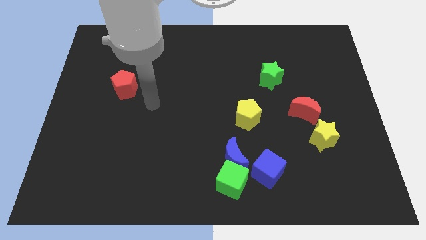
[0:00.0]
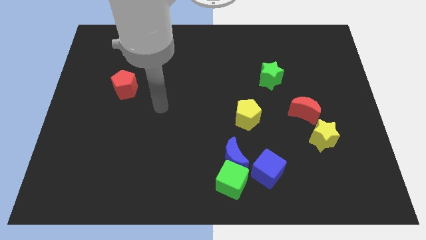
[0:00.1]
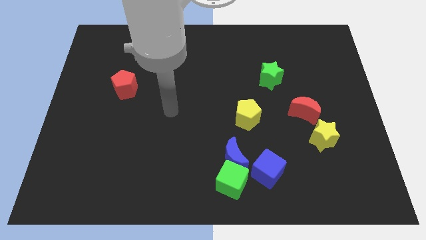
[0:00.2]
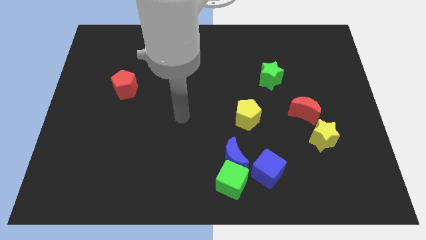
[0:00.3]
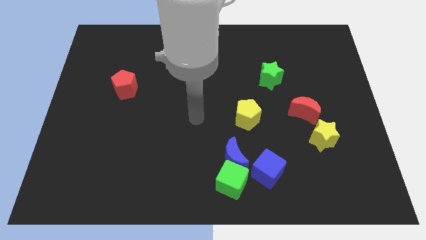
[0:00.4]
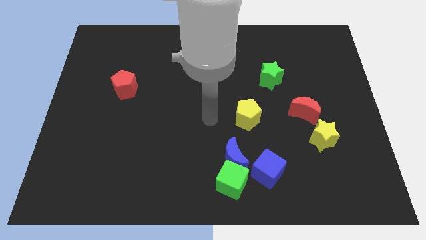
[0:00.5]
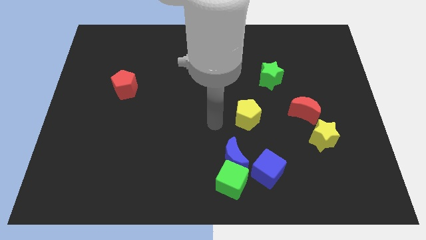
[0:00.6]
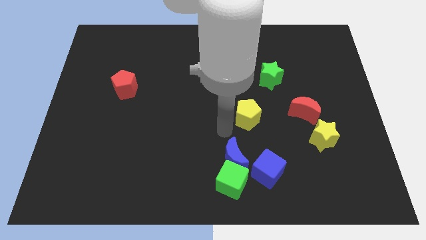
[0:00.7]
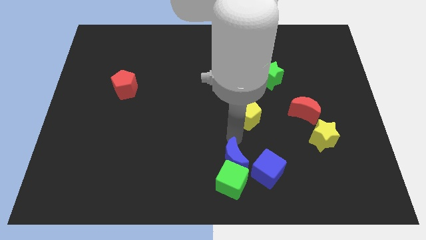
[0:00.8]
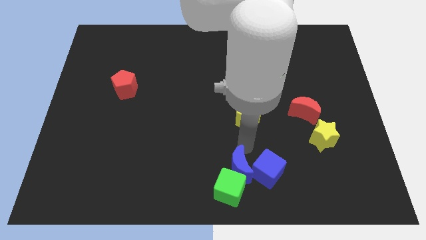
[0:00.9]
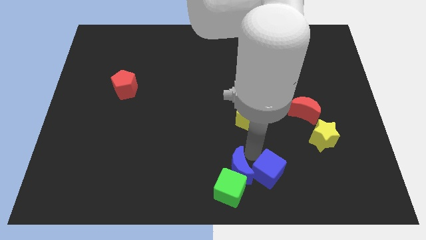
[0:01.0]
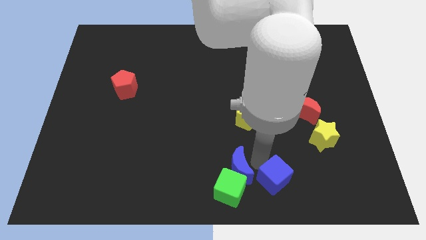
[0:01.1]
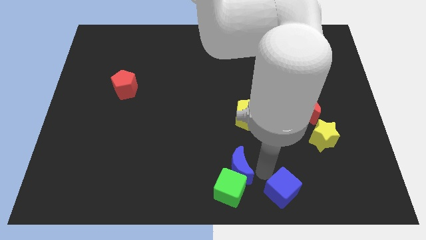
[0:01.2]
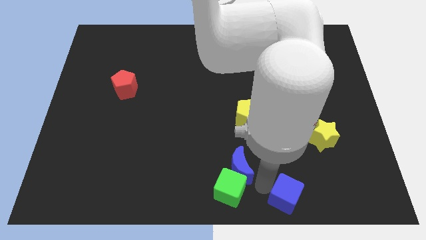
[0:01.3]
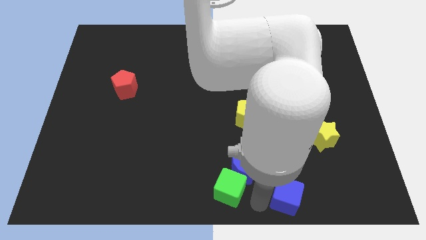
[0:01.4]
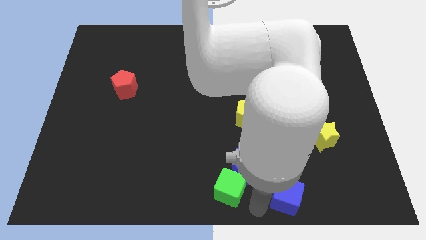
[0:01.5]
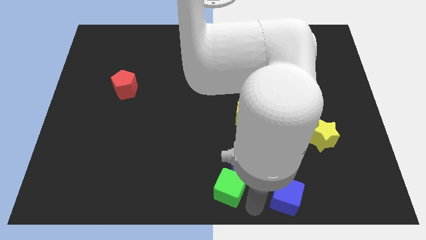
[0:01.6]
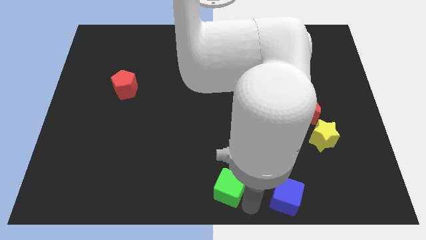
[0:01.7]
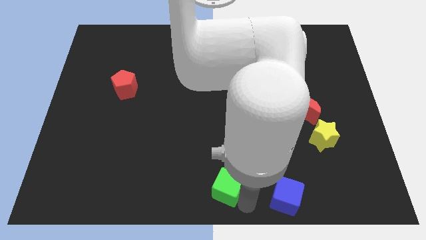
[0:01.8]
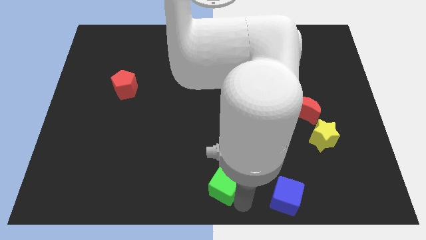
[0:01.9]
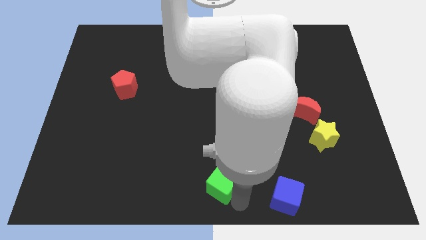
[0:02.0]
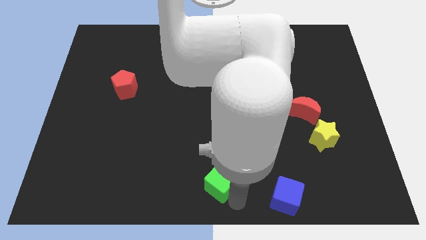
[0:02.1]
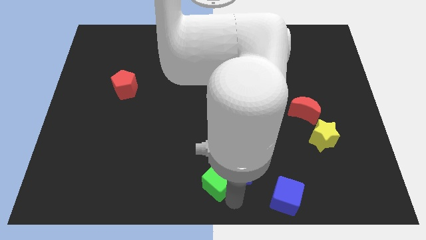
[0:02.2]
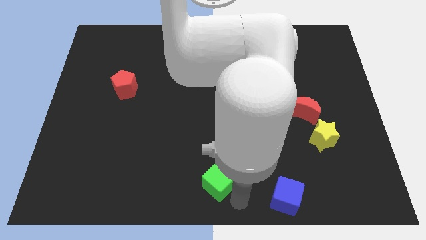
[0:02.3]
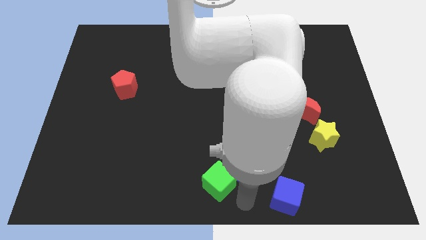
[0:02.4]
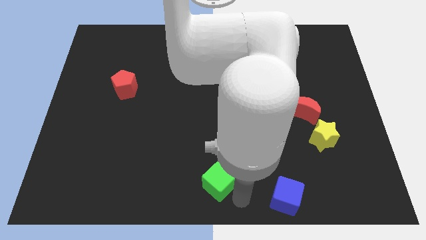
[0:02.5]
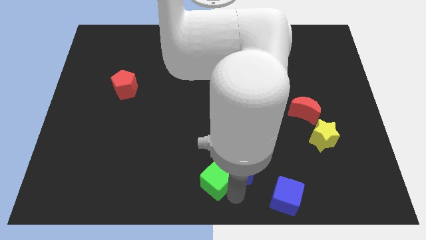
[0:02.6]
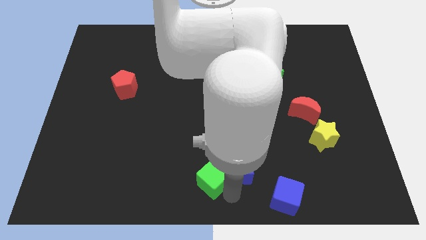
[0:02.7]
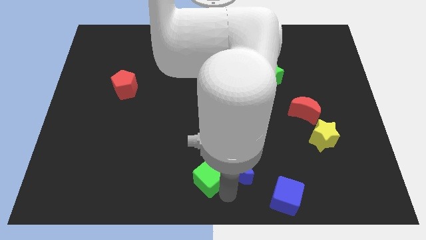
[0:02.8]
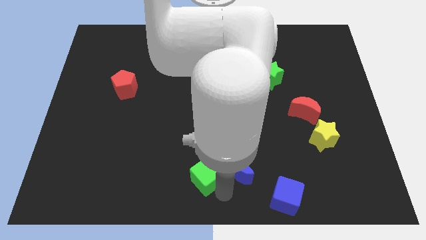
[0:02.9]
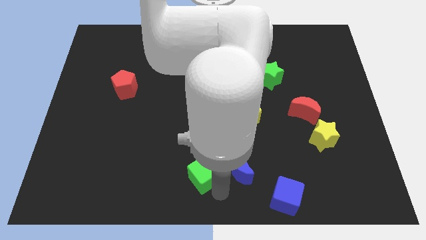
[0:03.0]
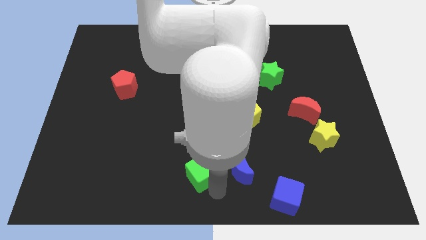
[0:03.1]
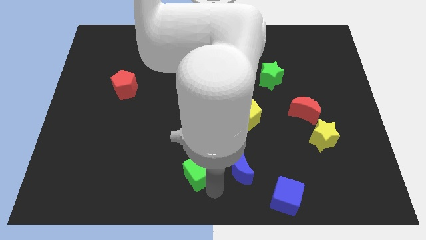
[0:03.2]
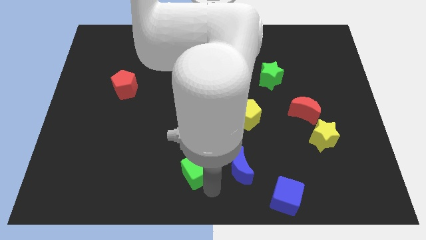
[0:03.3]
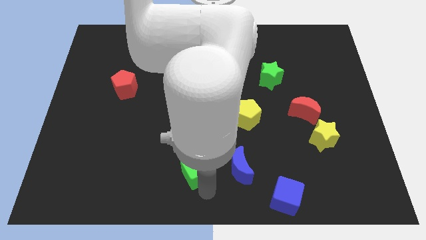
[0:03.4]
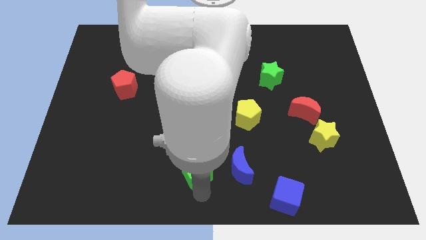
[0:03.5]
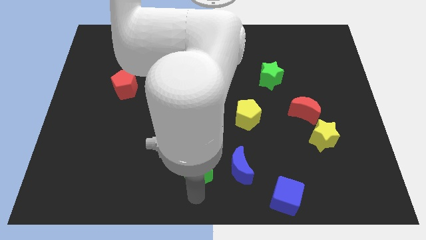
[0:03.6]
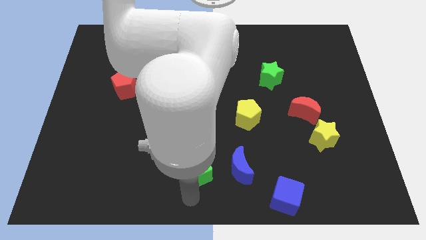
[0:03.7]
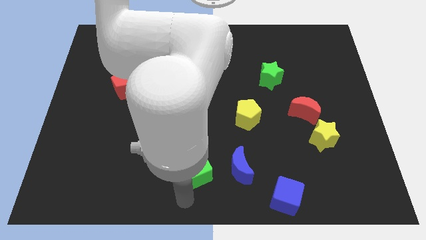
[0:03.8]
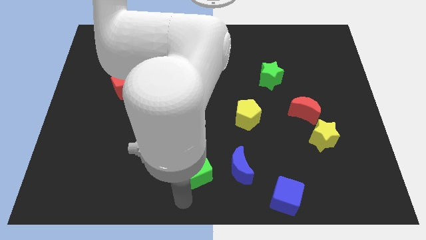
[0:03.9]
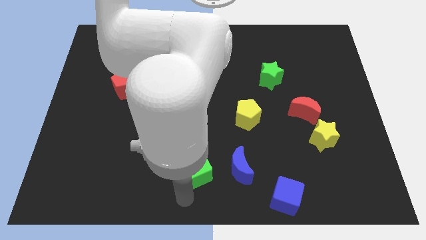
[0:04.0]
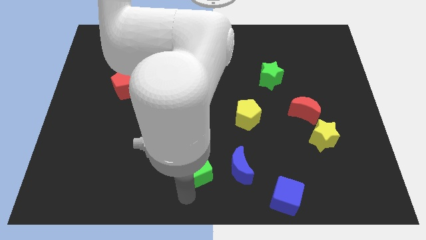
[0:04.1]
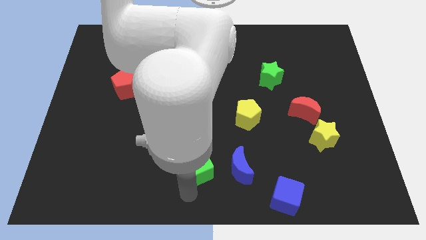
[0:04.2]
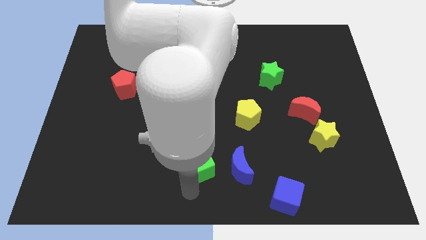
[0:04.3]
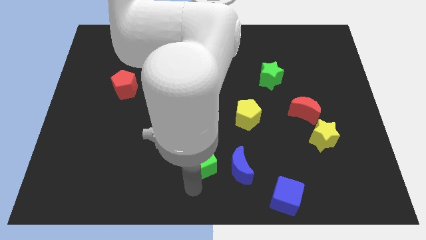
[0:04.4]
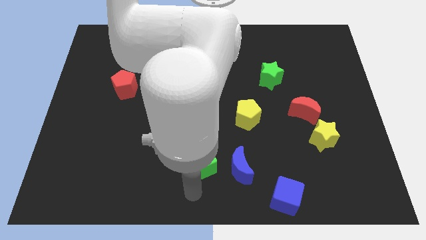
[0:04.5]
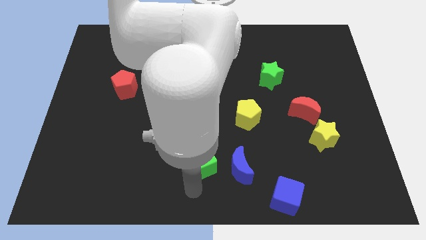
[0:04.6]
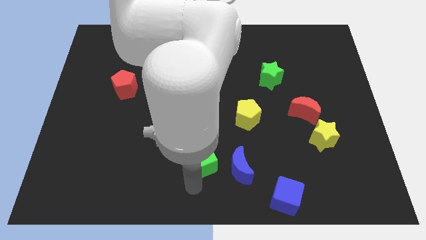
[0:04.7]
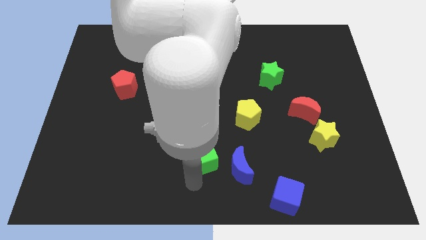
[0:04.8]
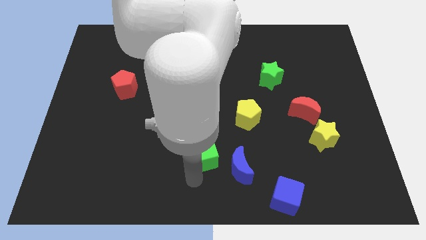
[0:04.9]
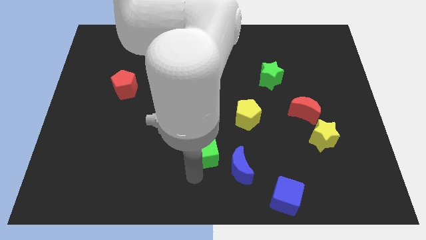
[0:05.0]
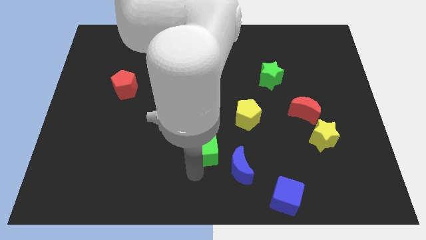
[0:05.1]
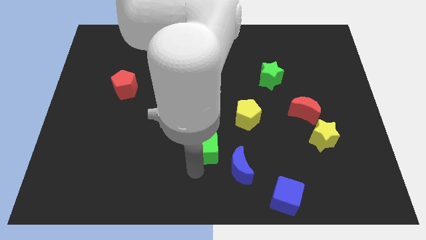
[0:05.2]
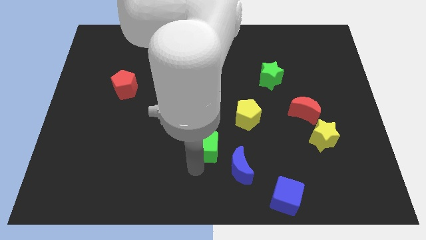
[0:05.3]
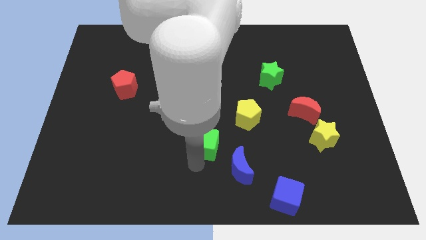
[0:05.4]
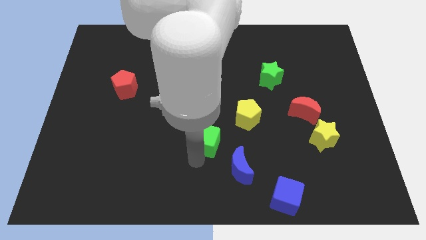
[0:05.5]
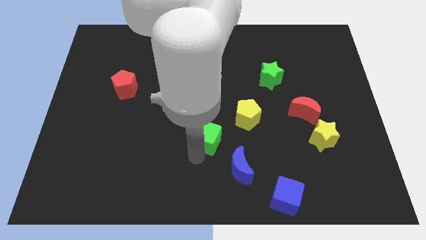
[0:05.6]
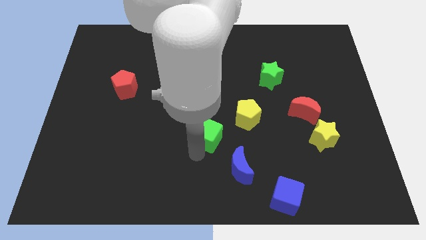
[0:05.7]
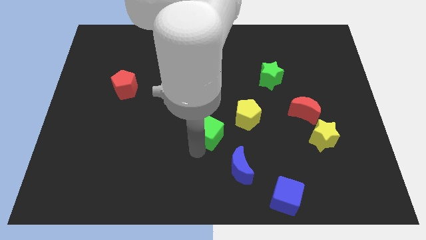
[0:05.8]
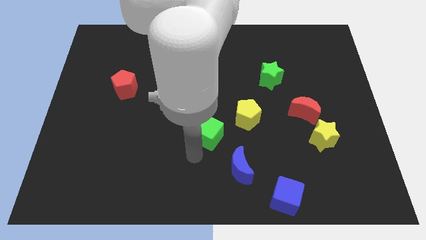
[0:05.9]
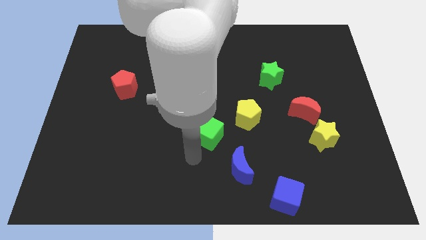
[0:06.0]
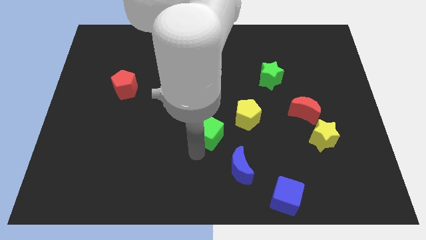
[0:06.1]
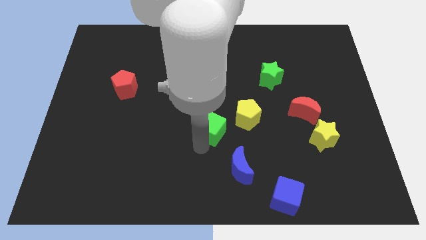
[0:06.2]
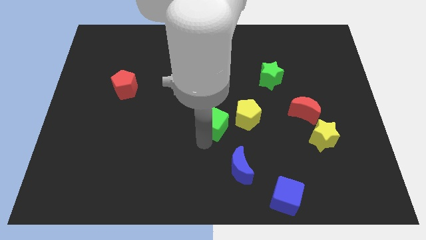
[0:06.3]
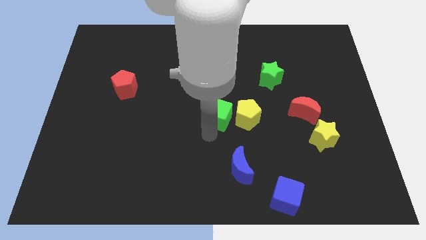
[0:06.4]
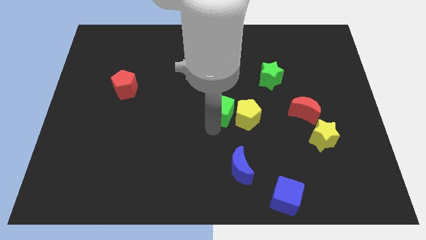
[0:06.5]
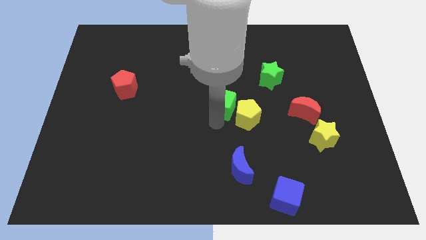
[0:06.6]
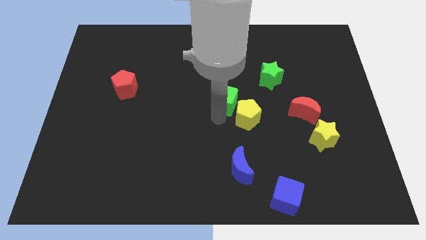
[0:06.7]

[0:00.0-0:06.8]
slide the green cube upwards

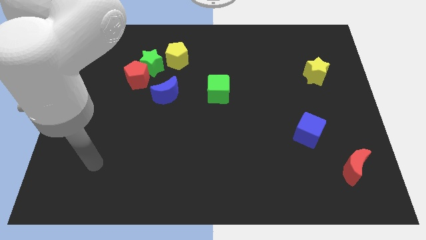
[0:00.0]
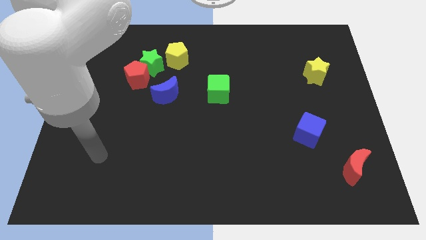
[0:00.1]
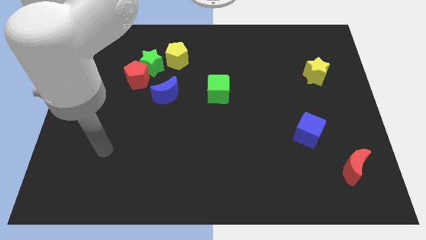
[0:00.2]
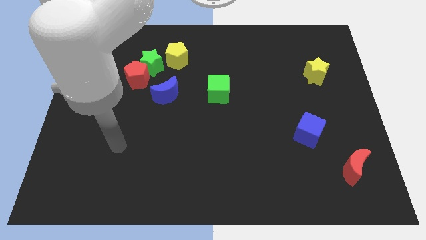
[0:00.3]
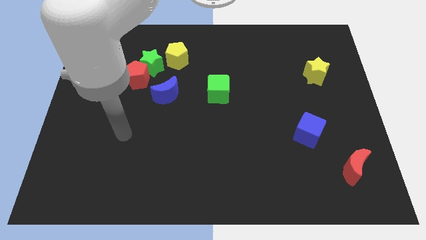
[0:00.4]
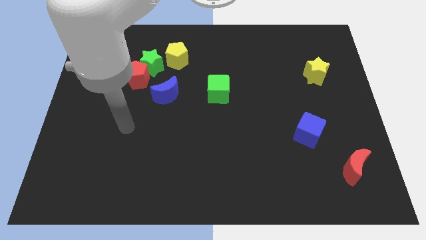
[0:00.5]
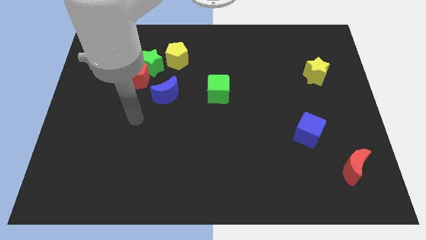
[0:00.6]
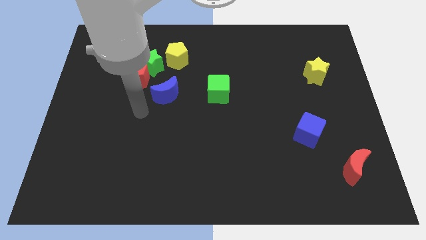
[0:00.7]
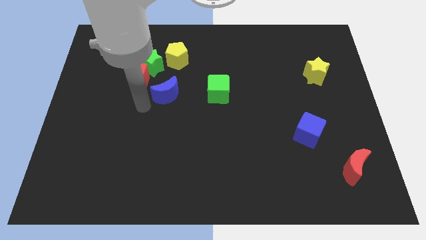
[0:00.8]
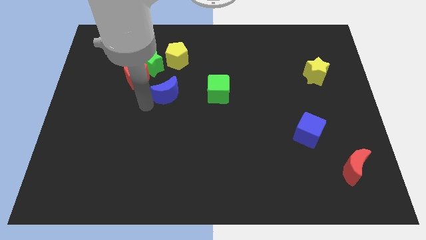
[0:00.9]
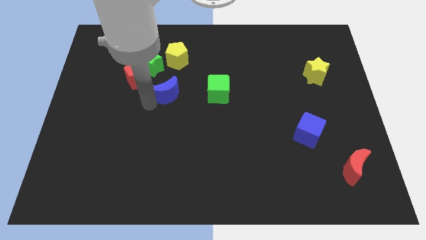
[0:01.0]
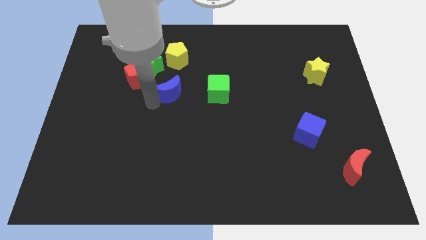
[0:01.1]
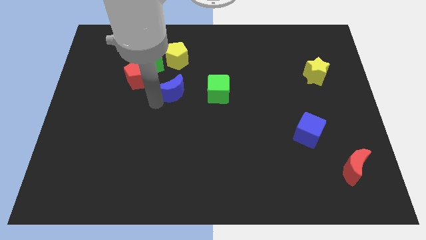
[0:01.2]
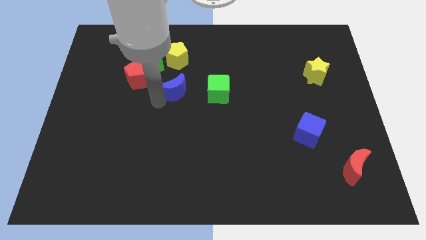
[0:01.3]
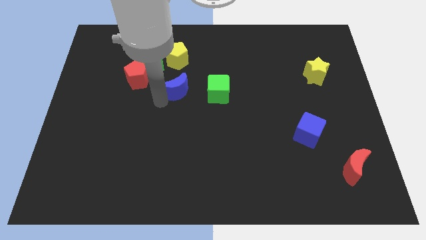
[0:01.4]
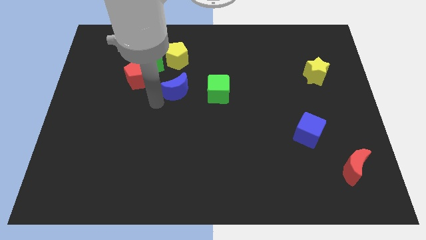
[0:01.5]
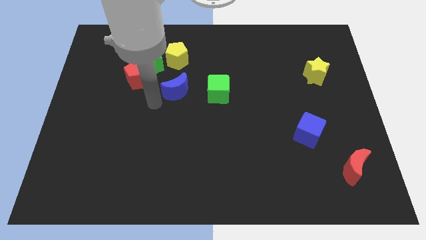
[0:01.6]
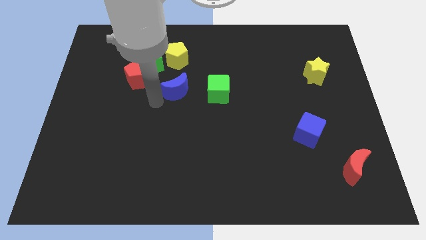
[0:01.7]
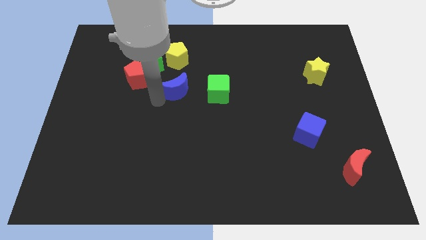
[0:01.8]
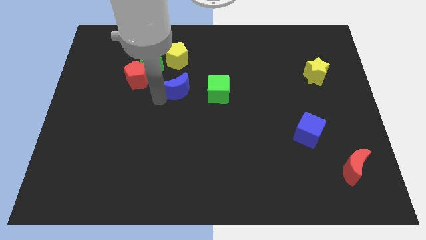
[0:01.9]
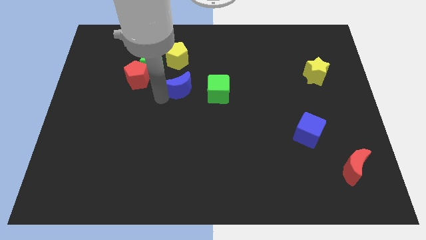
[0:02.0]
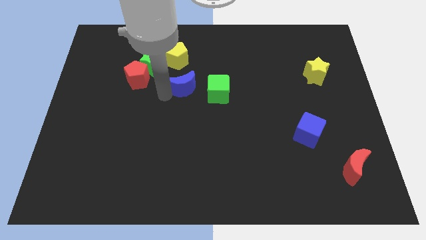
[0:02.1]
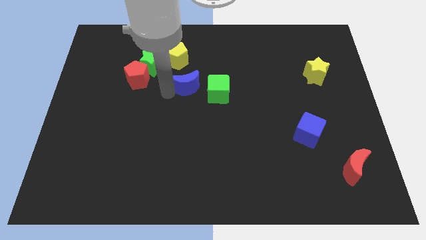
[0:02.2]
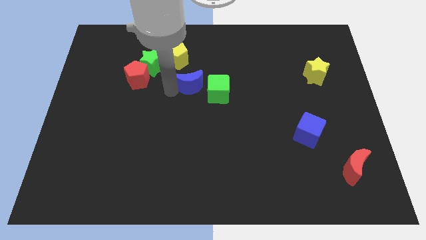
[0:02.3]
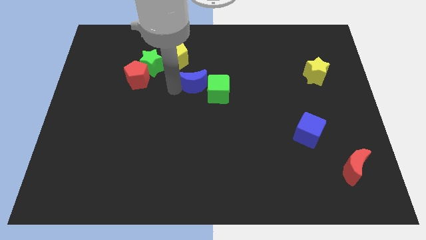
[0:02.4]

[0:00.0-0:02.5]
move the blue moon upwards and then to the right a little bit
